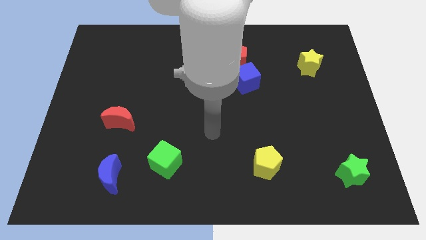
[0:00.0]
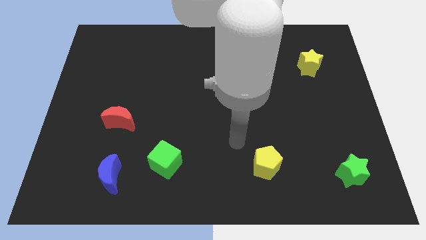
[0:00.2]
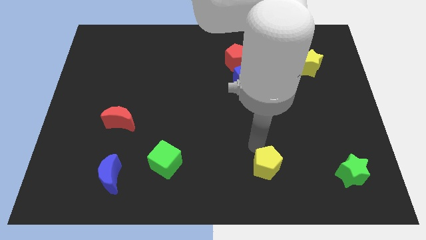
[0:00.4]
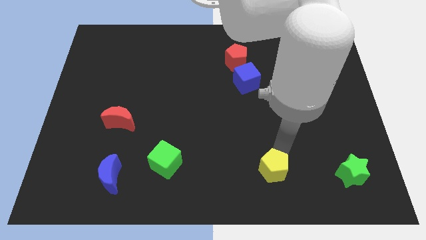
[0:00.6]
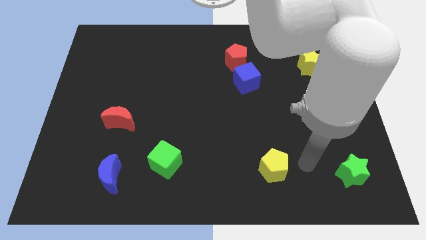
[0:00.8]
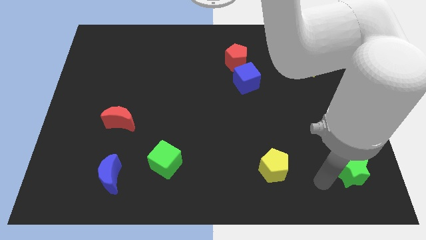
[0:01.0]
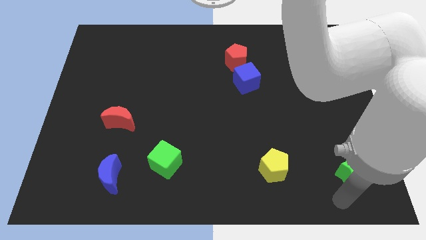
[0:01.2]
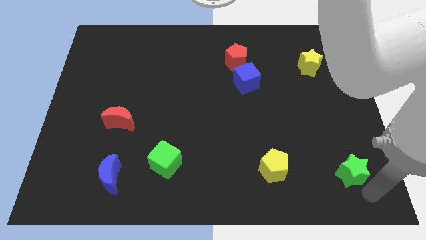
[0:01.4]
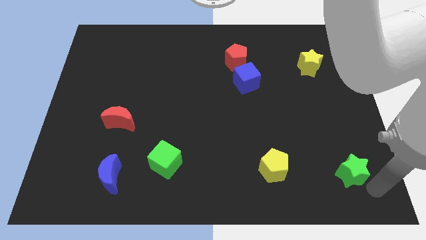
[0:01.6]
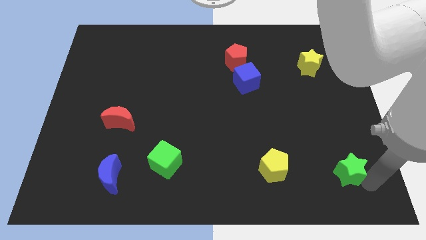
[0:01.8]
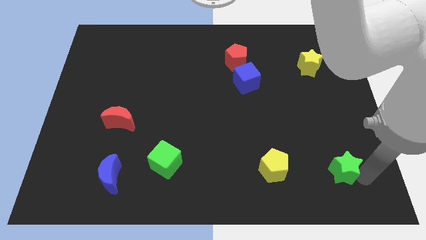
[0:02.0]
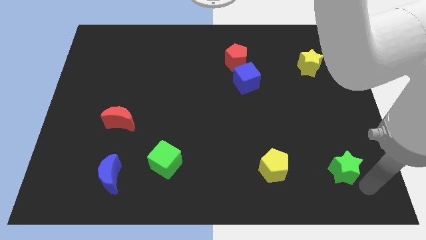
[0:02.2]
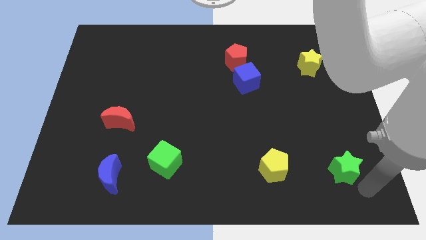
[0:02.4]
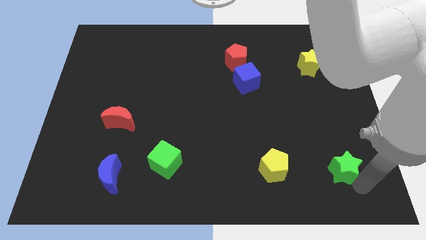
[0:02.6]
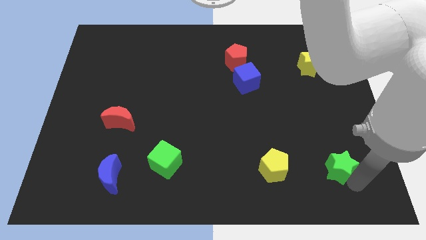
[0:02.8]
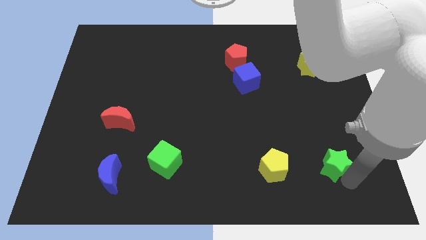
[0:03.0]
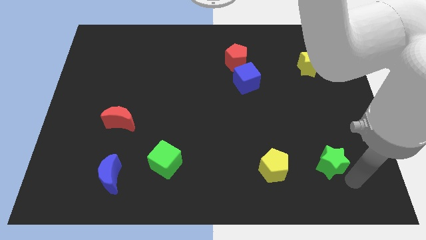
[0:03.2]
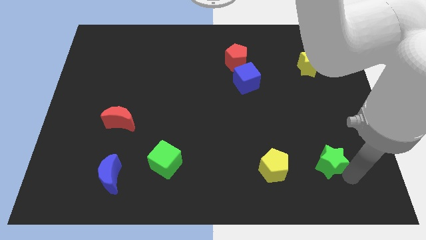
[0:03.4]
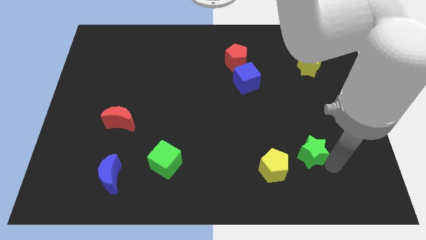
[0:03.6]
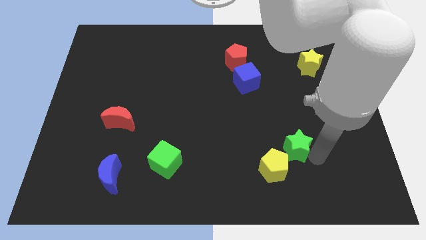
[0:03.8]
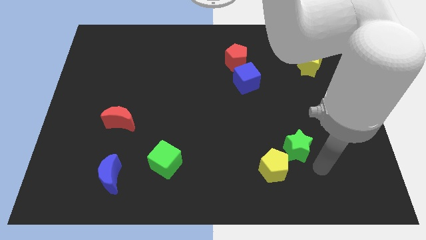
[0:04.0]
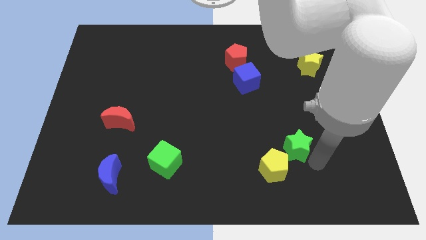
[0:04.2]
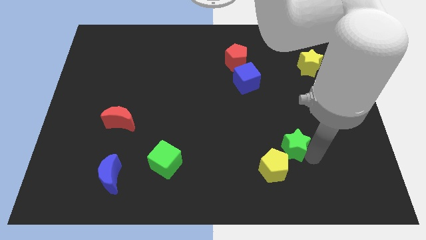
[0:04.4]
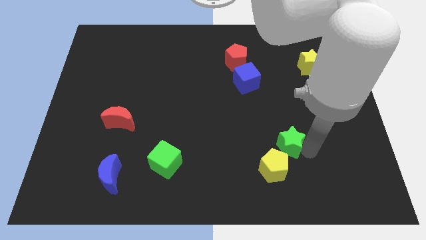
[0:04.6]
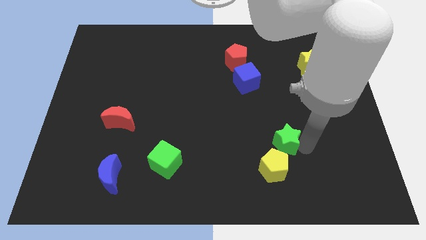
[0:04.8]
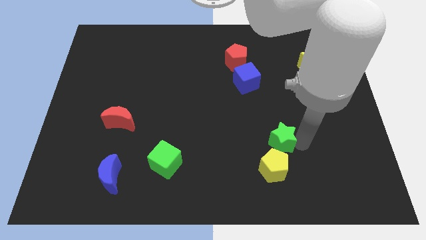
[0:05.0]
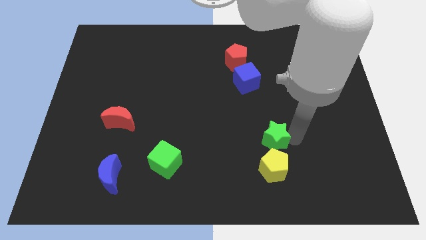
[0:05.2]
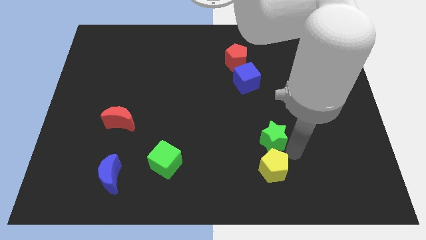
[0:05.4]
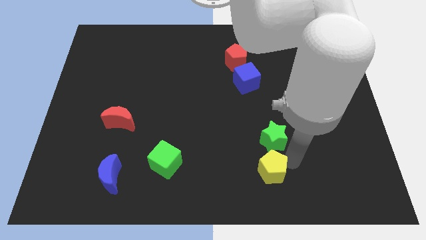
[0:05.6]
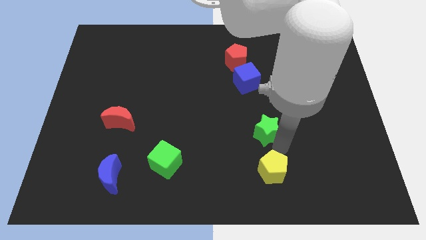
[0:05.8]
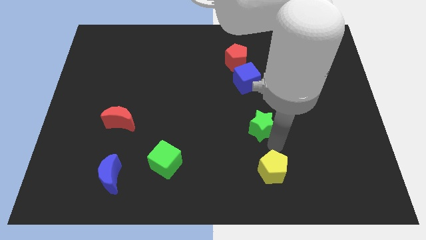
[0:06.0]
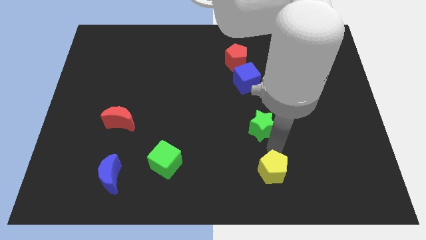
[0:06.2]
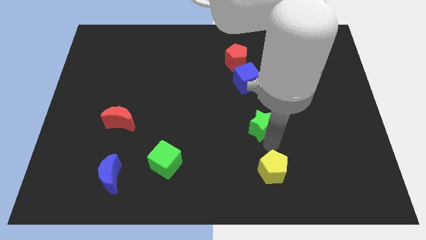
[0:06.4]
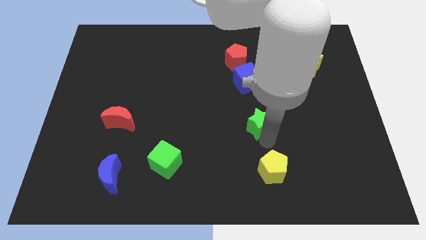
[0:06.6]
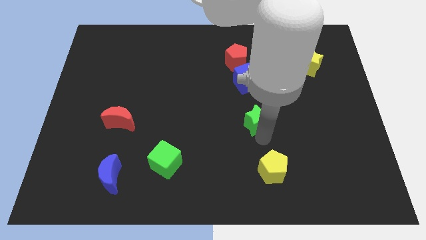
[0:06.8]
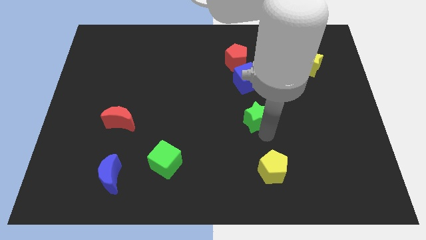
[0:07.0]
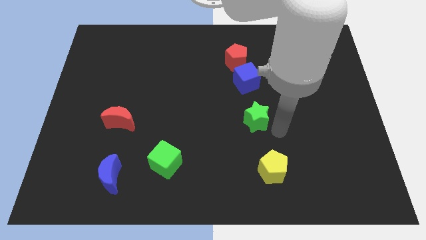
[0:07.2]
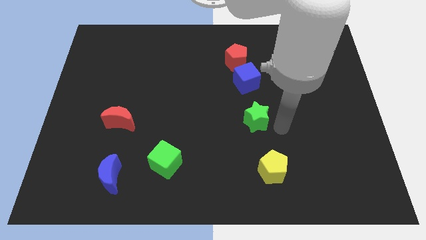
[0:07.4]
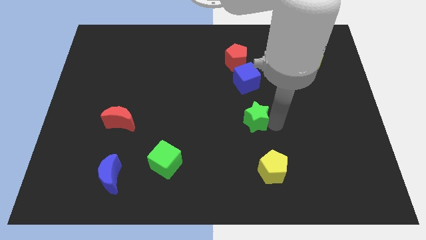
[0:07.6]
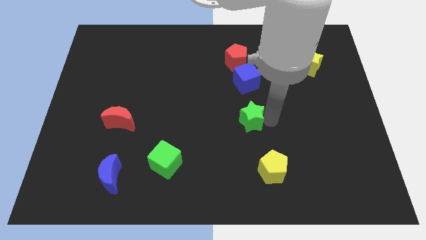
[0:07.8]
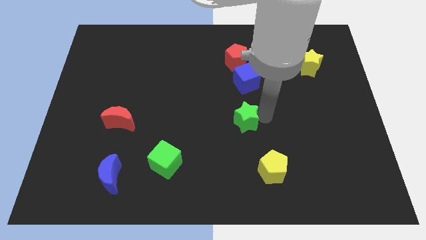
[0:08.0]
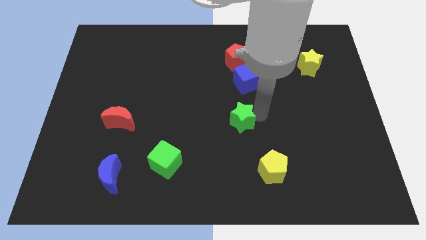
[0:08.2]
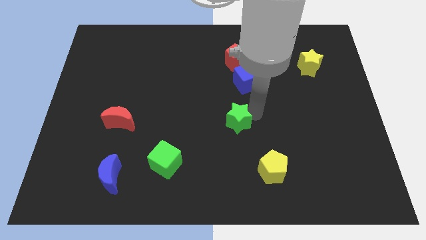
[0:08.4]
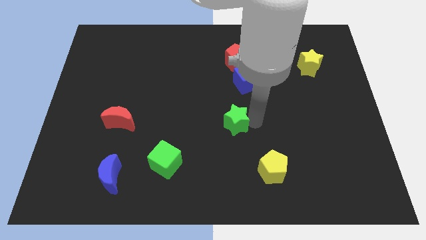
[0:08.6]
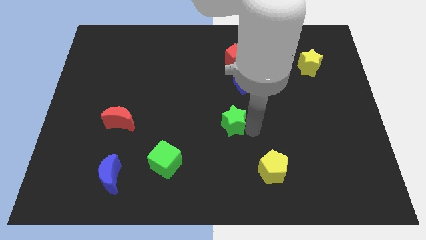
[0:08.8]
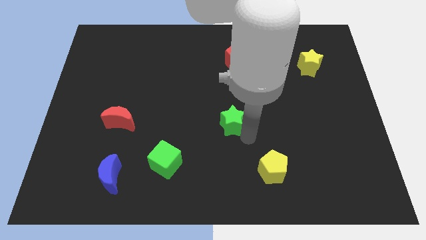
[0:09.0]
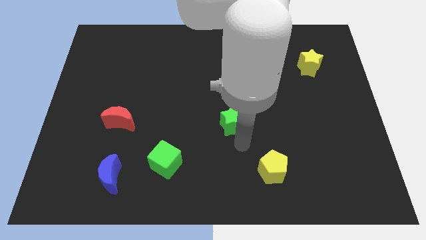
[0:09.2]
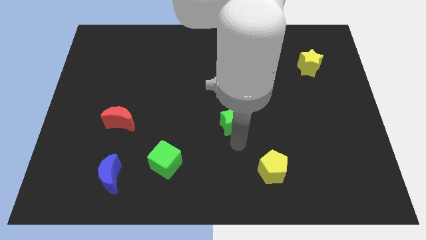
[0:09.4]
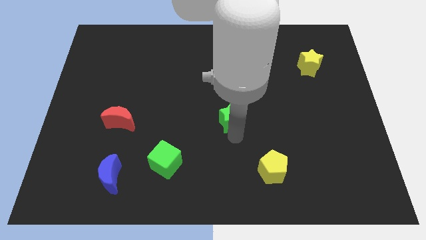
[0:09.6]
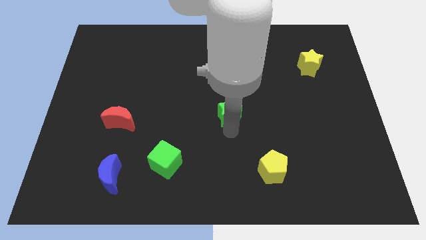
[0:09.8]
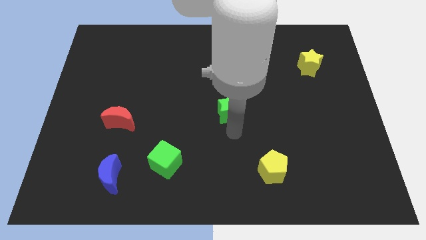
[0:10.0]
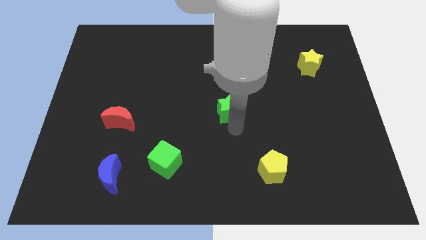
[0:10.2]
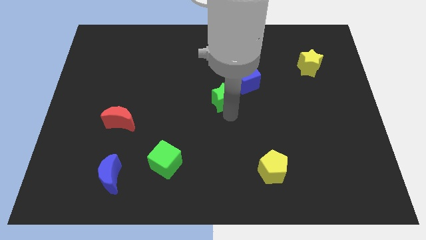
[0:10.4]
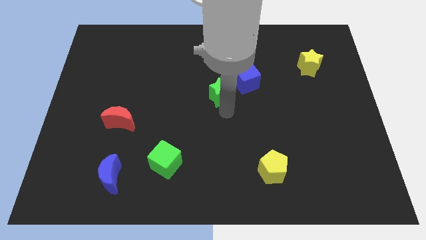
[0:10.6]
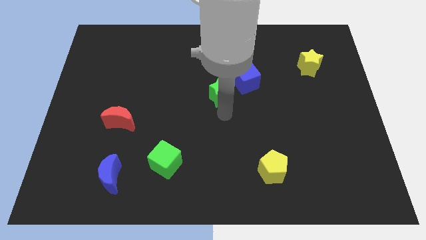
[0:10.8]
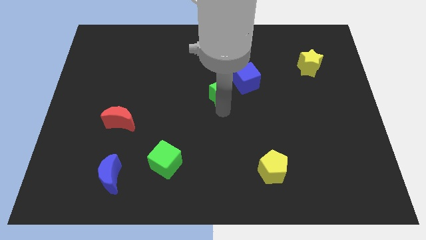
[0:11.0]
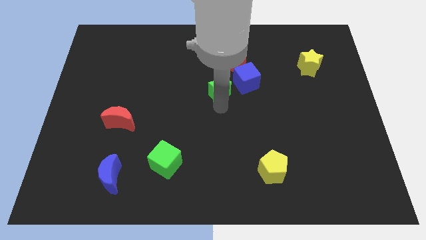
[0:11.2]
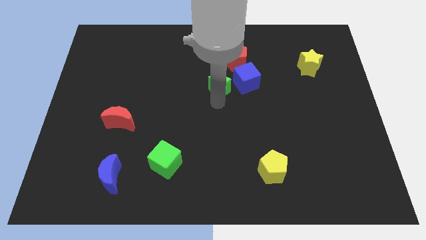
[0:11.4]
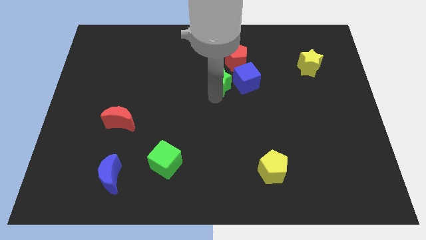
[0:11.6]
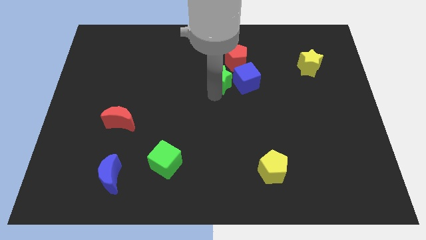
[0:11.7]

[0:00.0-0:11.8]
push the green star diagonally up and to the left of the blue cube

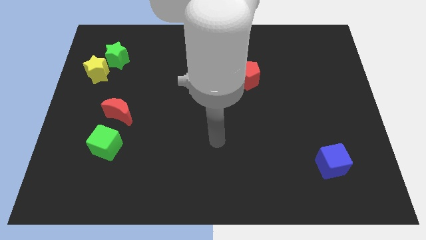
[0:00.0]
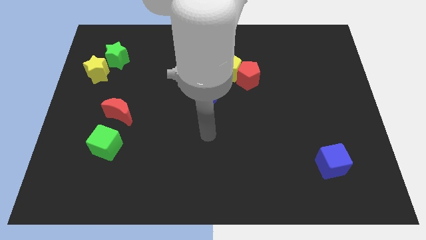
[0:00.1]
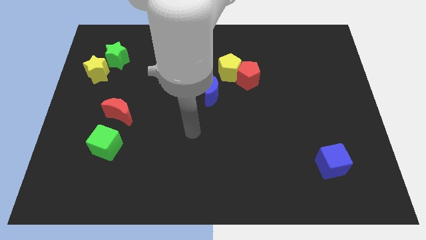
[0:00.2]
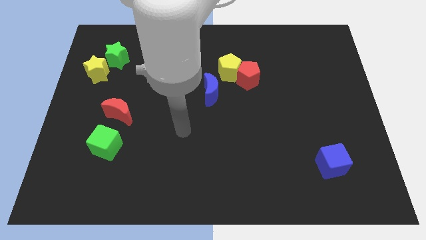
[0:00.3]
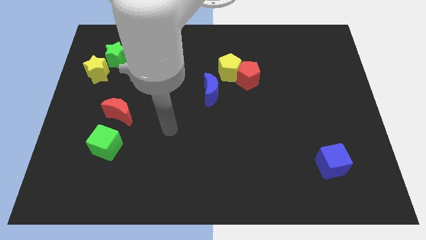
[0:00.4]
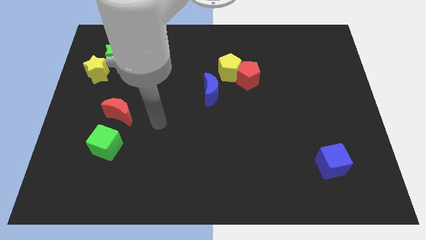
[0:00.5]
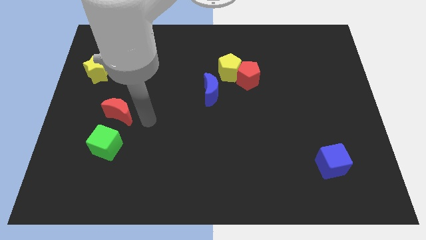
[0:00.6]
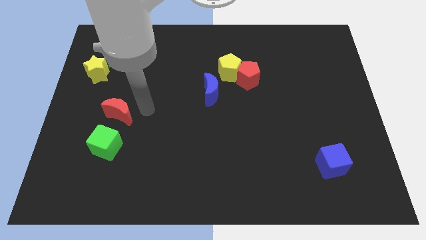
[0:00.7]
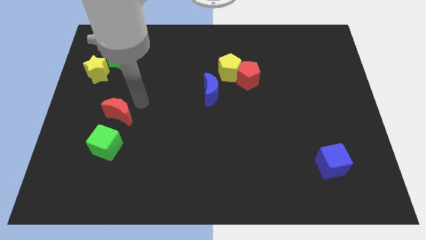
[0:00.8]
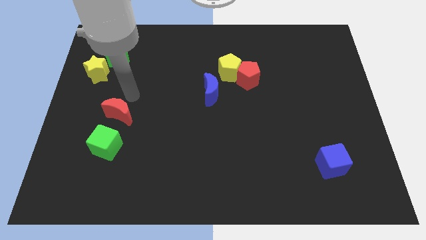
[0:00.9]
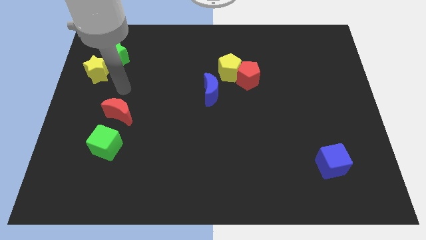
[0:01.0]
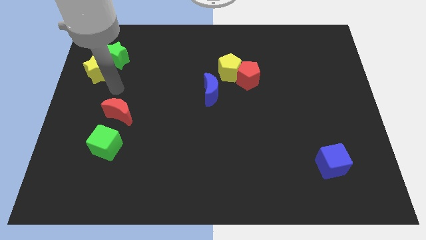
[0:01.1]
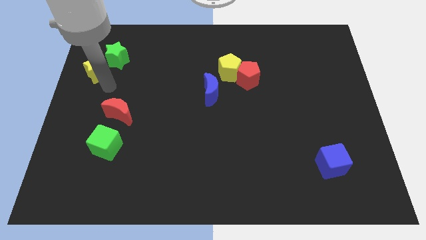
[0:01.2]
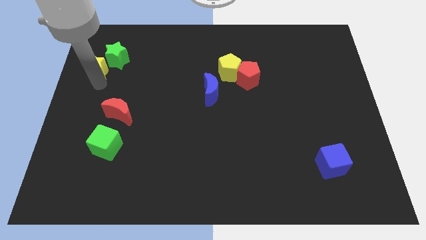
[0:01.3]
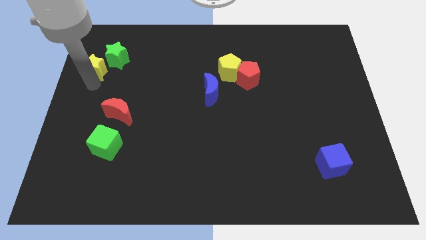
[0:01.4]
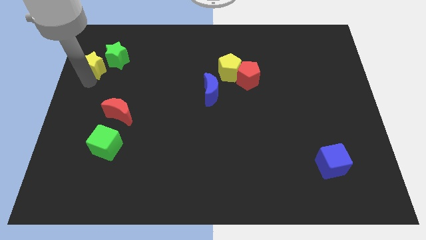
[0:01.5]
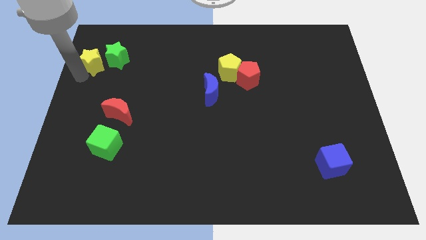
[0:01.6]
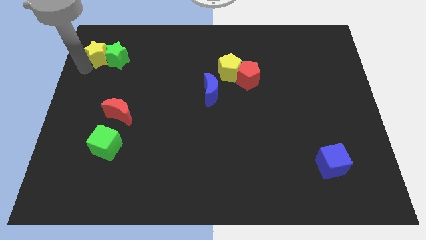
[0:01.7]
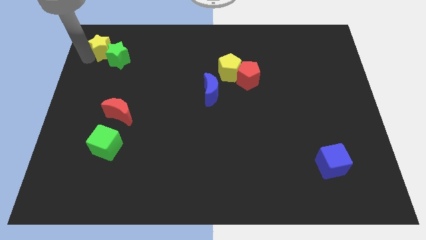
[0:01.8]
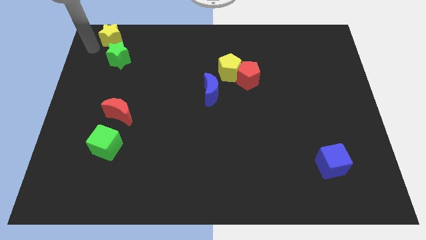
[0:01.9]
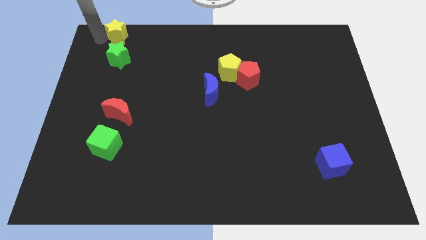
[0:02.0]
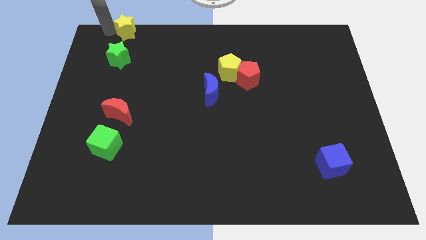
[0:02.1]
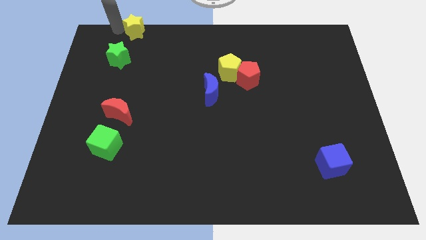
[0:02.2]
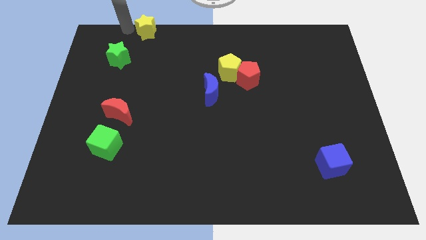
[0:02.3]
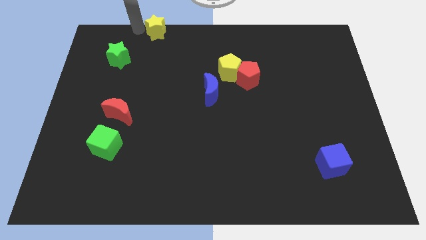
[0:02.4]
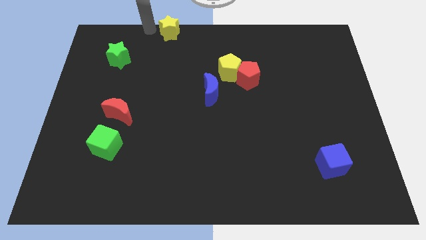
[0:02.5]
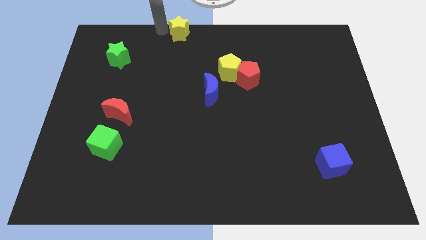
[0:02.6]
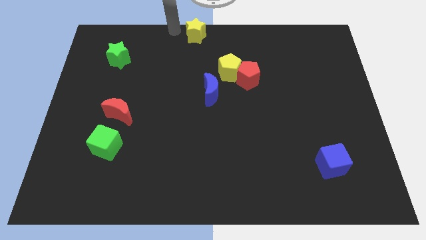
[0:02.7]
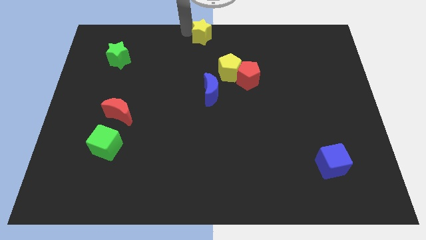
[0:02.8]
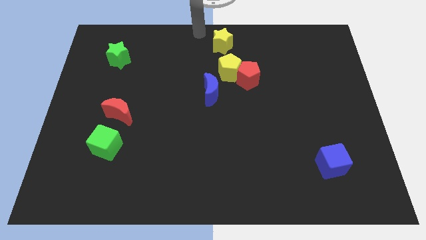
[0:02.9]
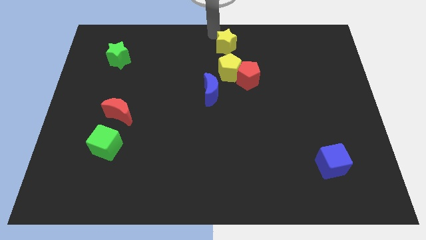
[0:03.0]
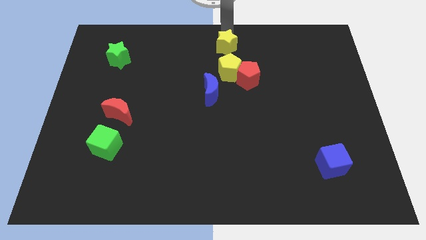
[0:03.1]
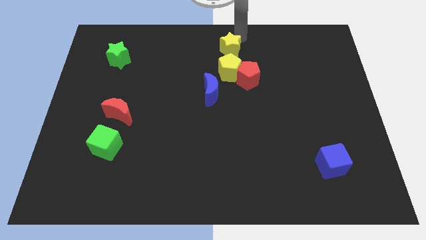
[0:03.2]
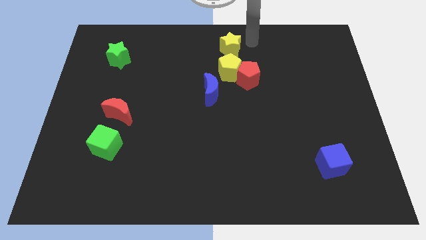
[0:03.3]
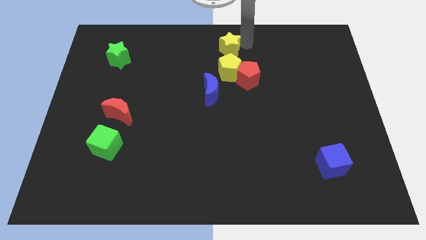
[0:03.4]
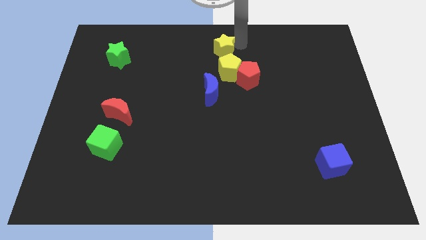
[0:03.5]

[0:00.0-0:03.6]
put the yellow star to the top left side of the yellow pentagon
